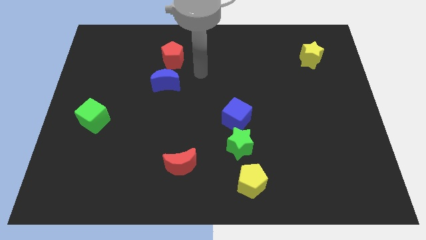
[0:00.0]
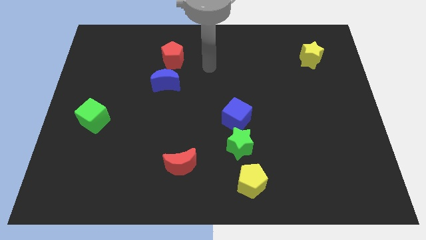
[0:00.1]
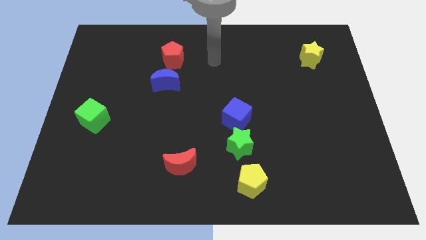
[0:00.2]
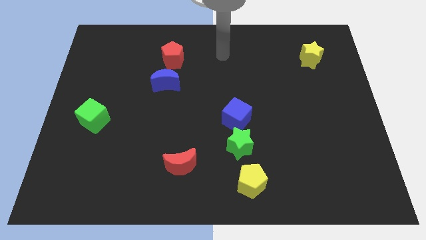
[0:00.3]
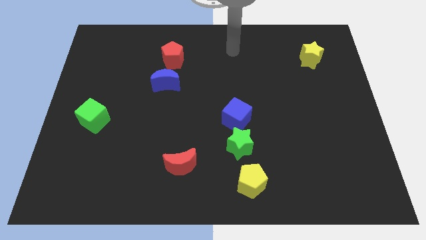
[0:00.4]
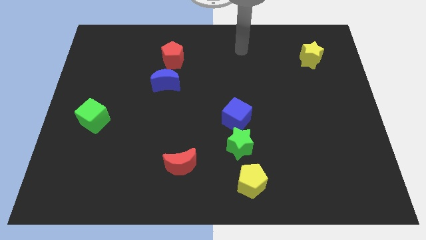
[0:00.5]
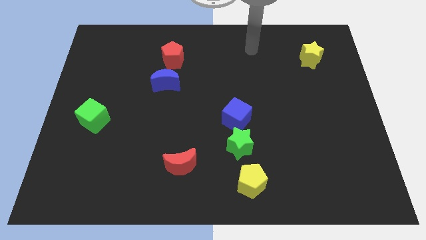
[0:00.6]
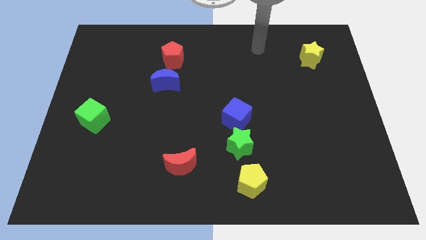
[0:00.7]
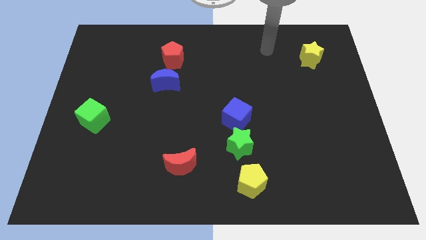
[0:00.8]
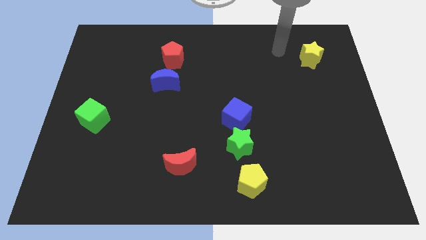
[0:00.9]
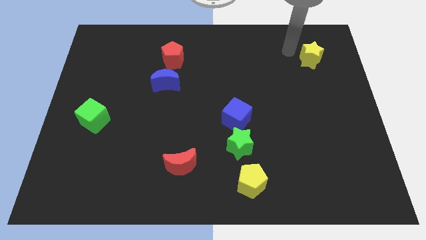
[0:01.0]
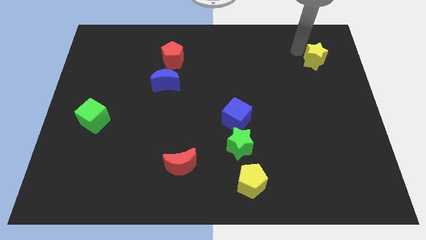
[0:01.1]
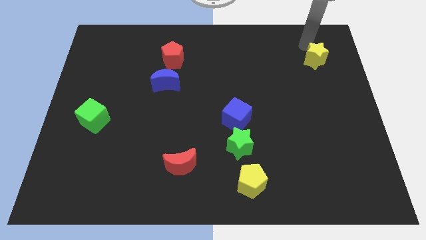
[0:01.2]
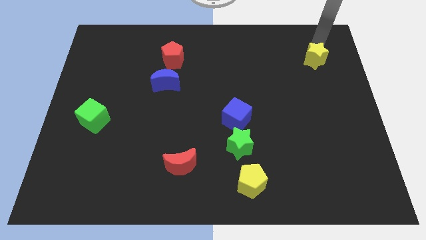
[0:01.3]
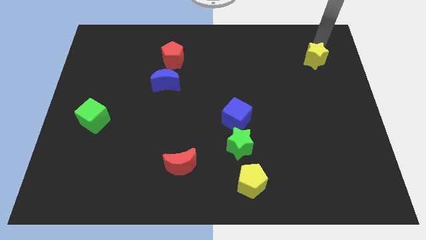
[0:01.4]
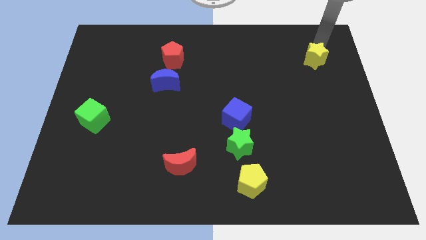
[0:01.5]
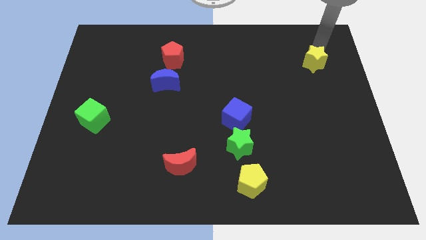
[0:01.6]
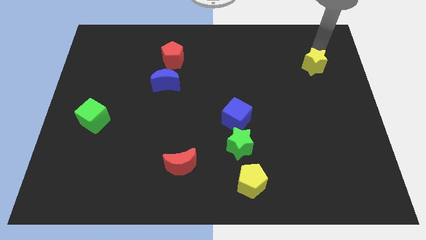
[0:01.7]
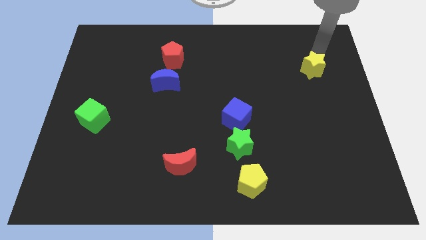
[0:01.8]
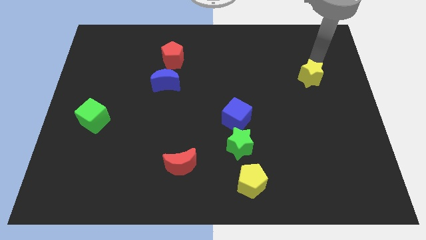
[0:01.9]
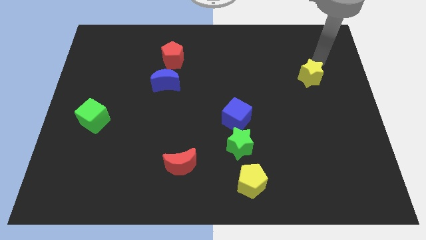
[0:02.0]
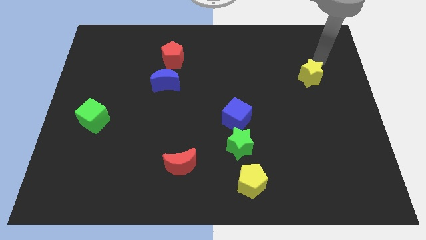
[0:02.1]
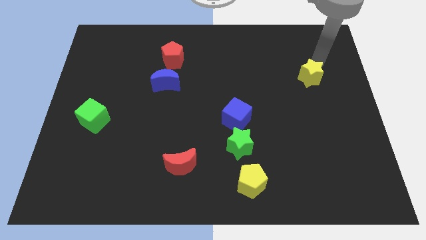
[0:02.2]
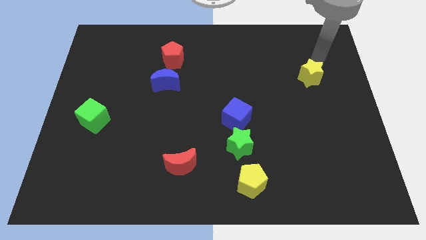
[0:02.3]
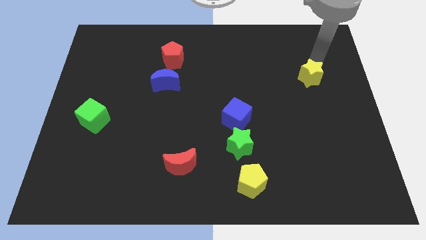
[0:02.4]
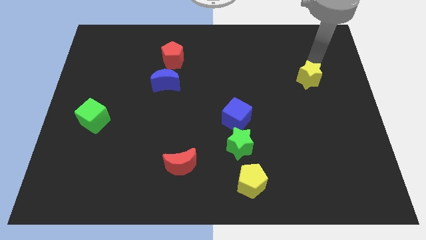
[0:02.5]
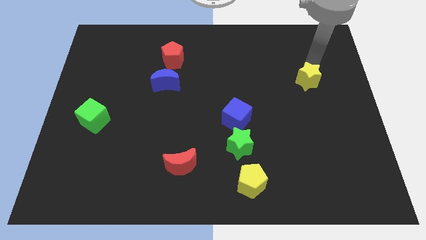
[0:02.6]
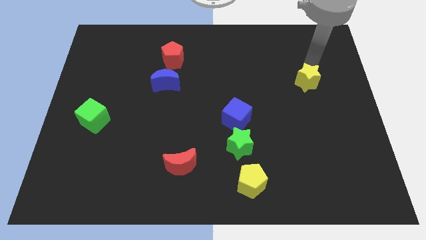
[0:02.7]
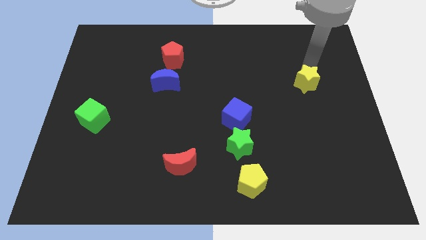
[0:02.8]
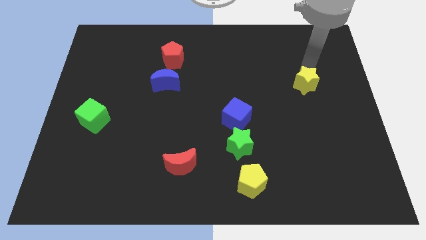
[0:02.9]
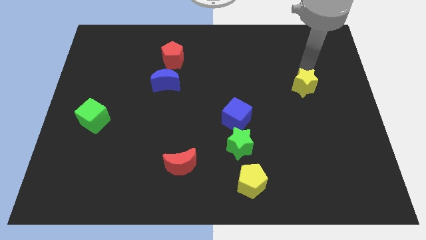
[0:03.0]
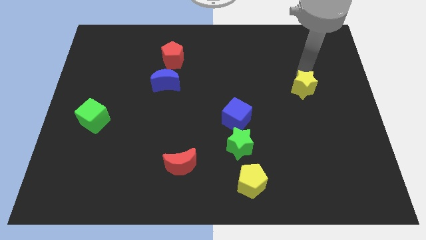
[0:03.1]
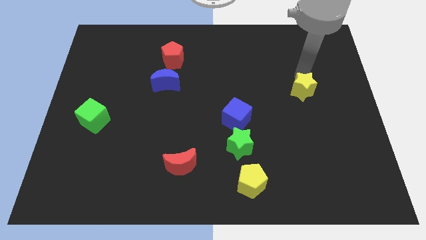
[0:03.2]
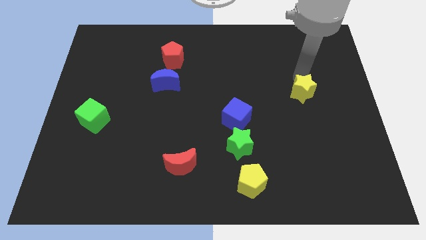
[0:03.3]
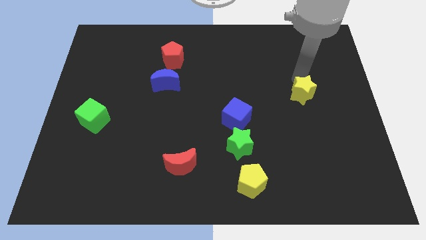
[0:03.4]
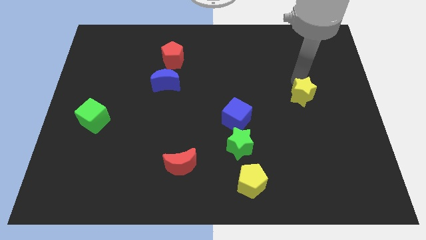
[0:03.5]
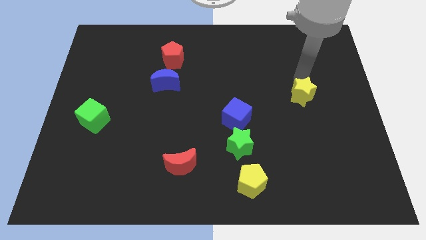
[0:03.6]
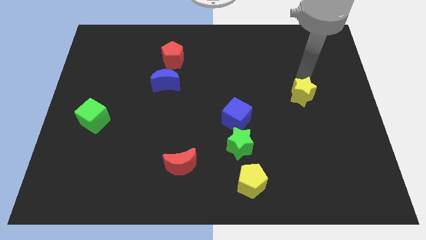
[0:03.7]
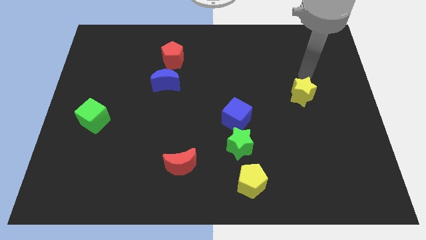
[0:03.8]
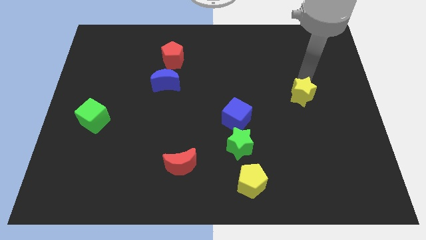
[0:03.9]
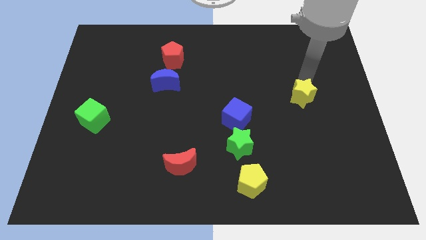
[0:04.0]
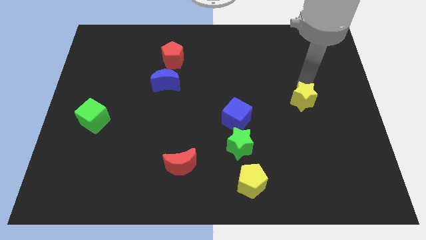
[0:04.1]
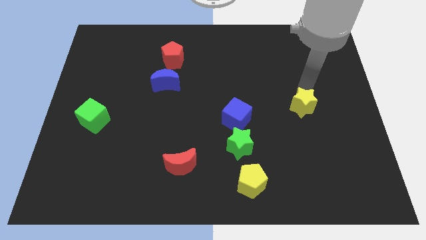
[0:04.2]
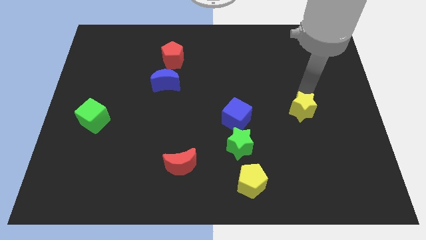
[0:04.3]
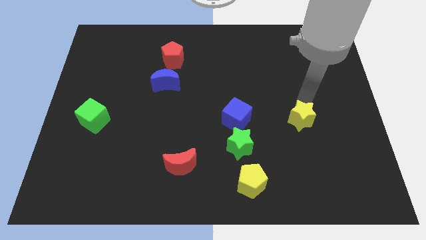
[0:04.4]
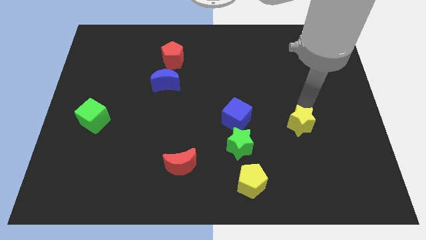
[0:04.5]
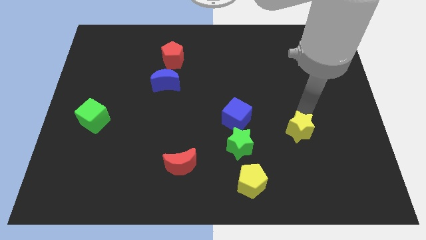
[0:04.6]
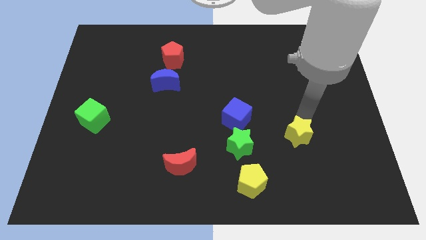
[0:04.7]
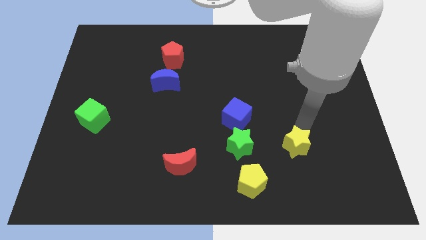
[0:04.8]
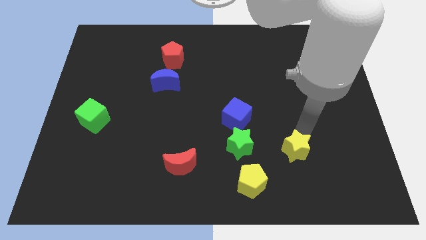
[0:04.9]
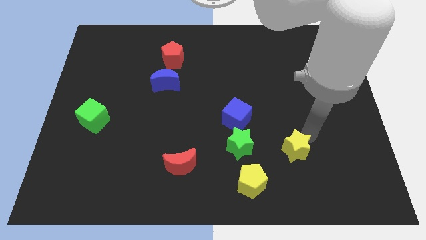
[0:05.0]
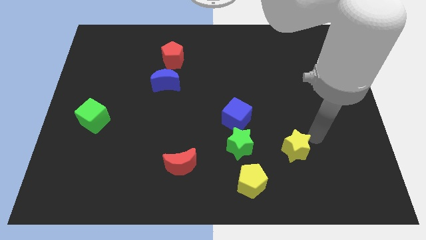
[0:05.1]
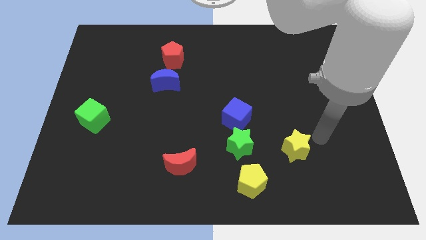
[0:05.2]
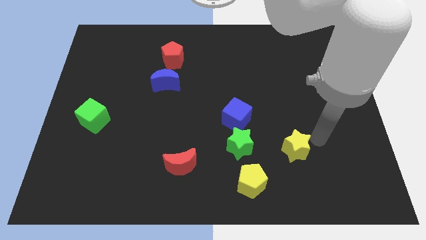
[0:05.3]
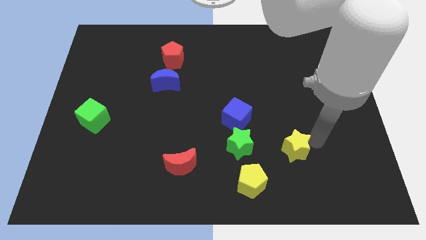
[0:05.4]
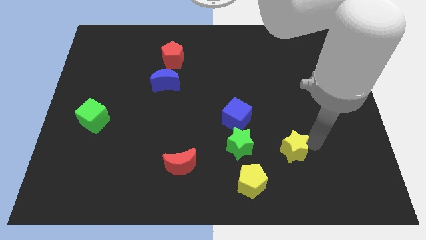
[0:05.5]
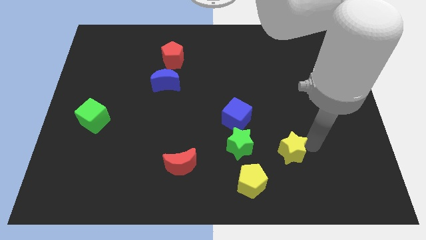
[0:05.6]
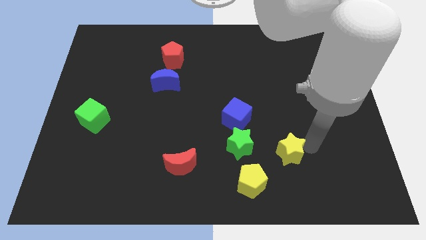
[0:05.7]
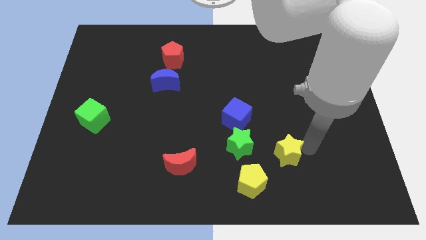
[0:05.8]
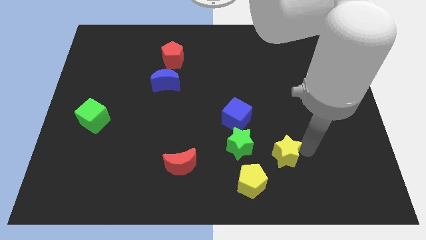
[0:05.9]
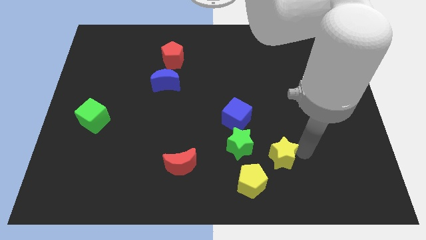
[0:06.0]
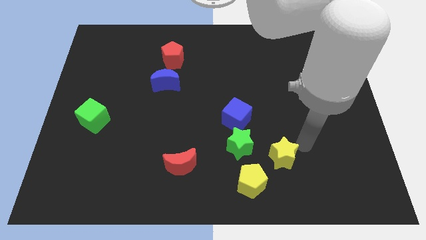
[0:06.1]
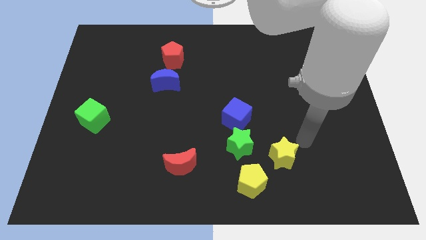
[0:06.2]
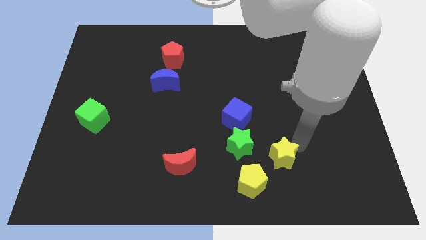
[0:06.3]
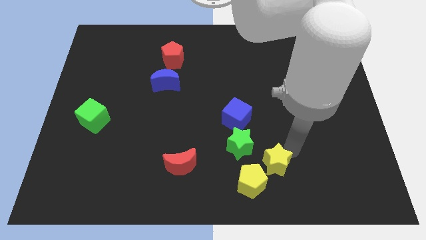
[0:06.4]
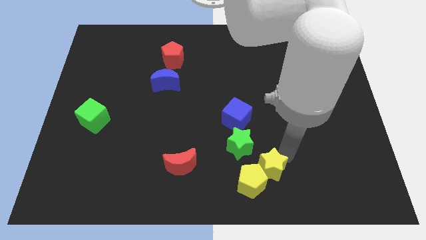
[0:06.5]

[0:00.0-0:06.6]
put the yellow star to the yellow pentagon
